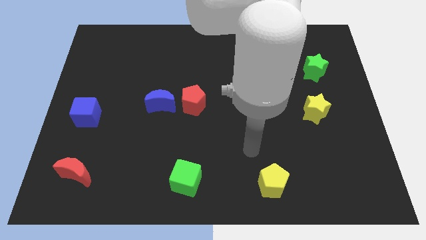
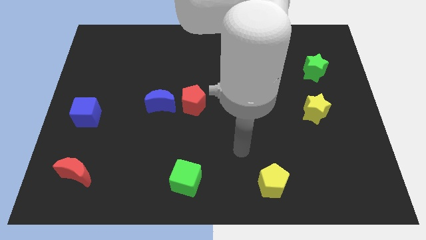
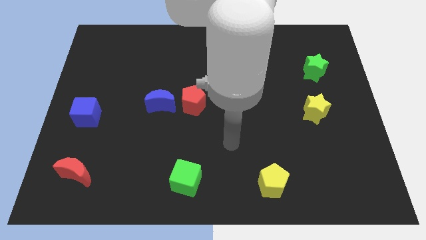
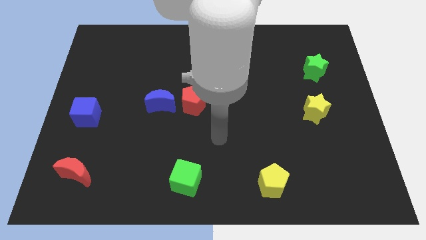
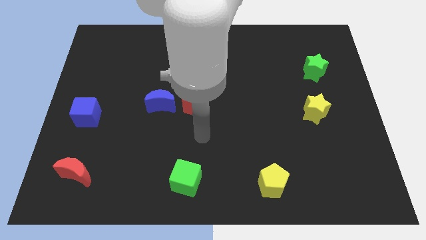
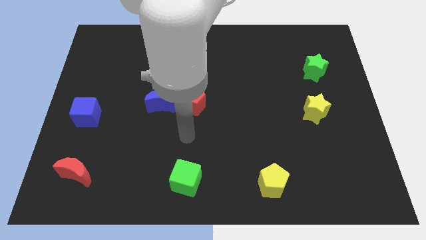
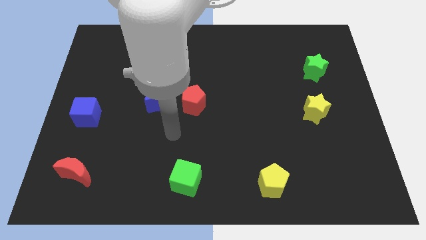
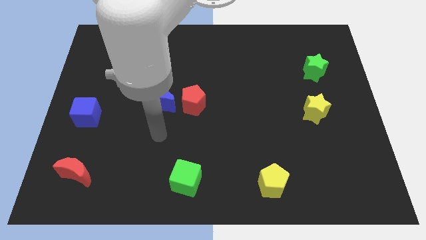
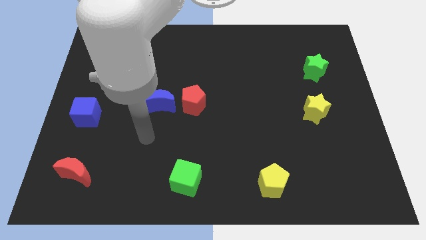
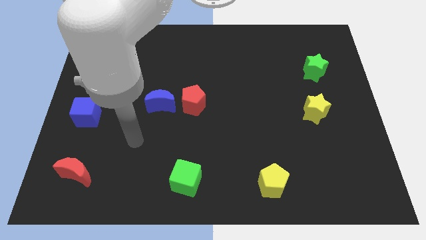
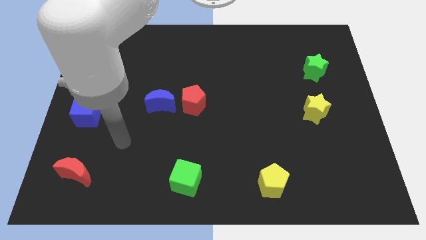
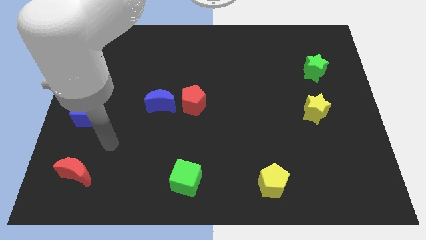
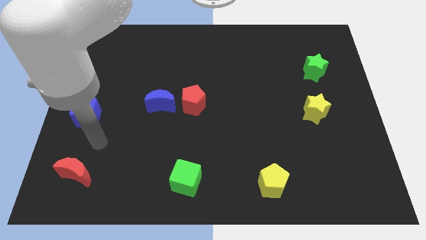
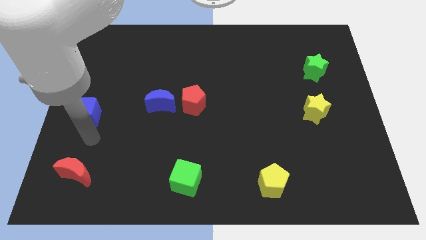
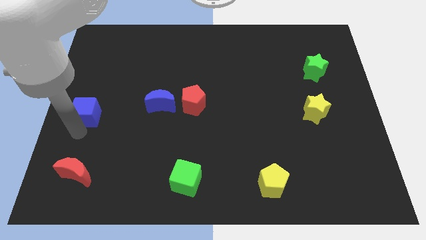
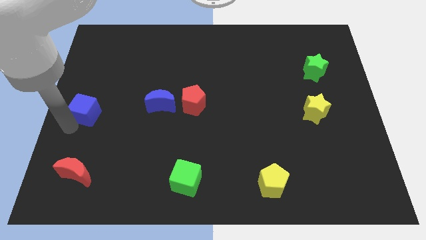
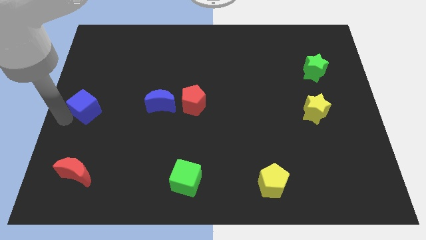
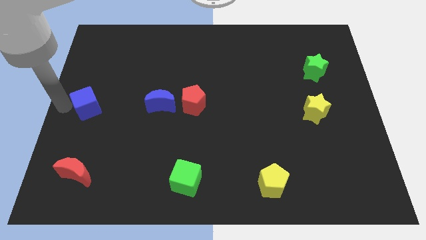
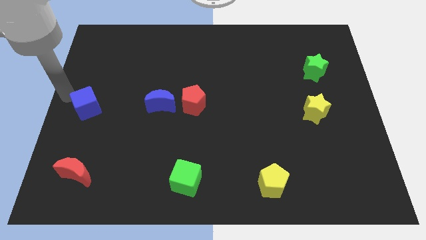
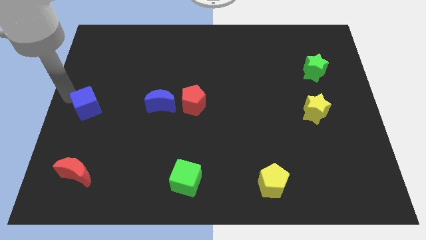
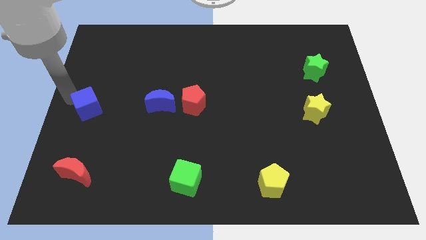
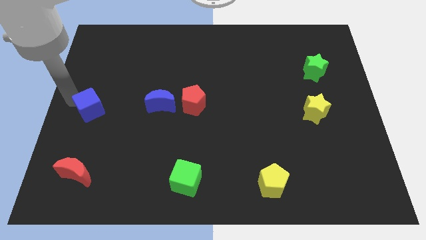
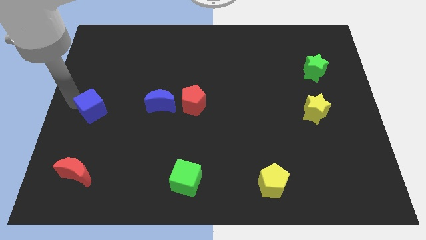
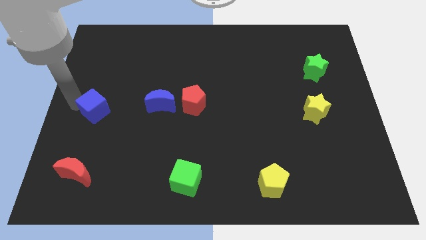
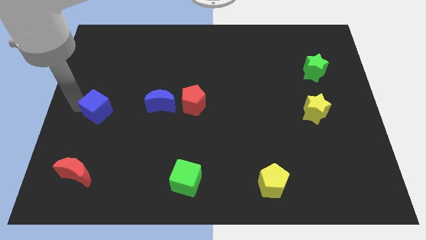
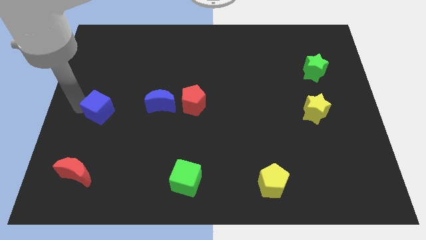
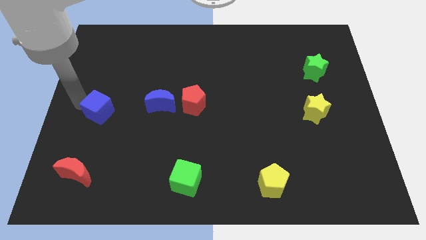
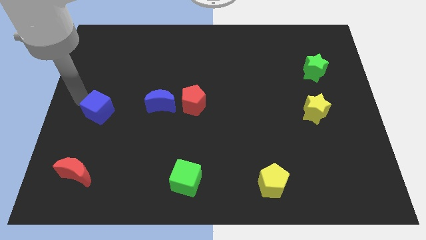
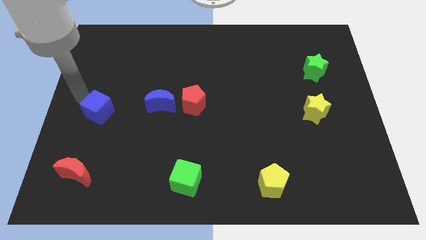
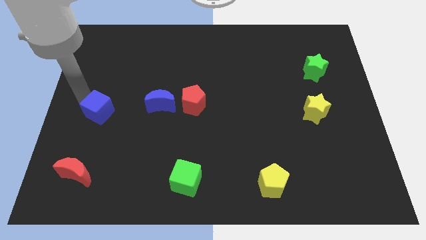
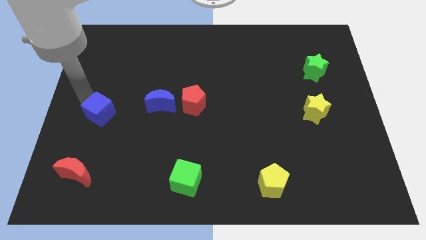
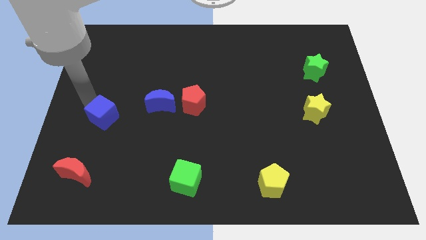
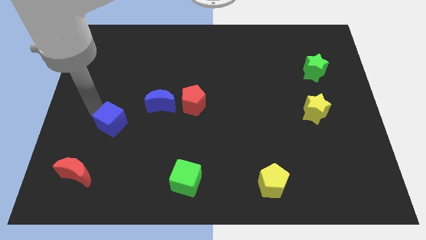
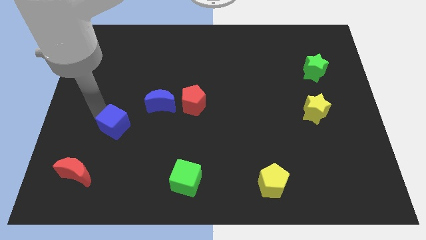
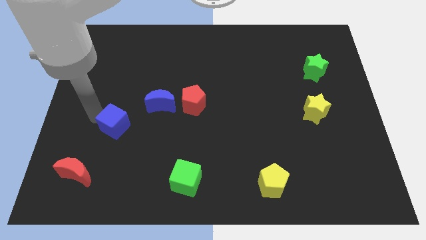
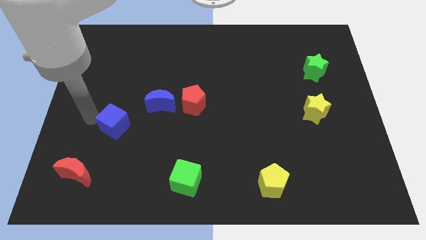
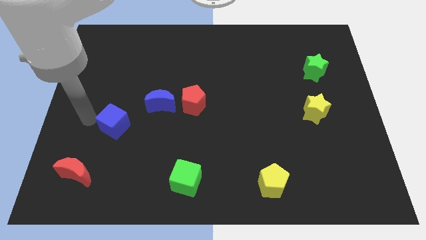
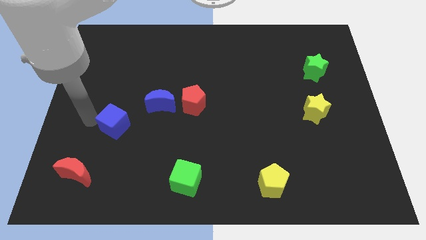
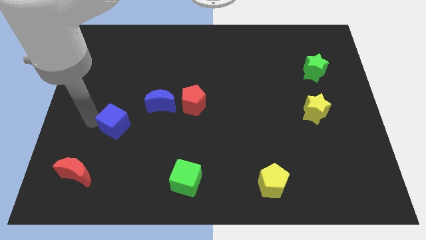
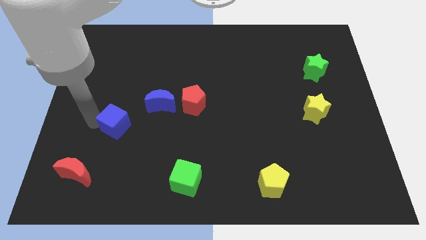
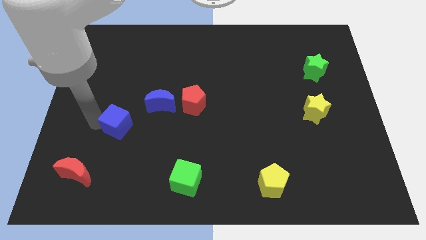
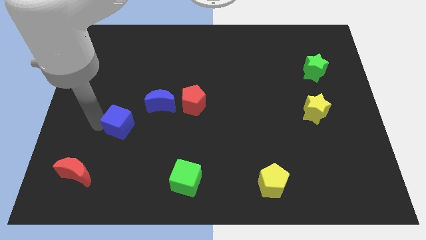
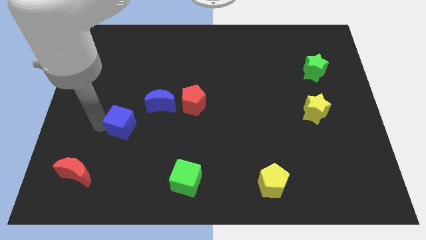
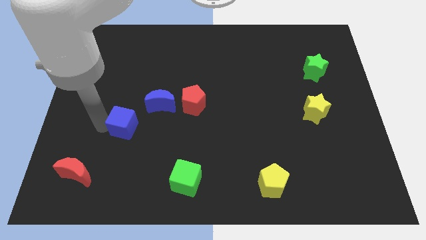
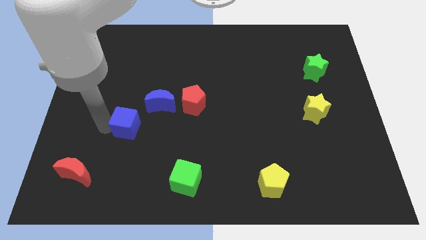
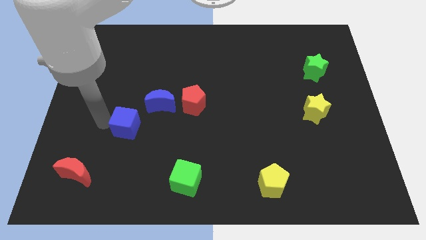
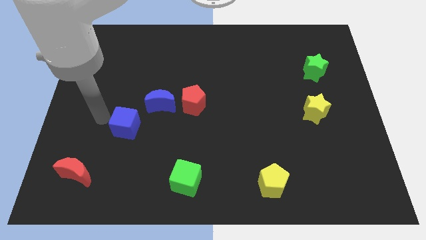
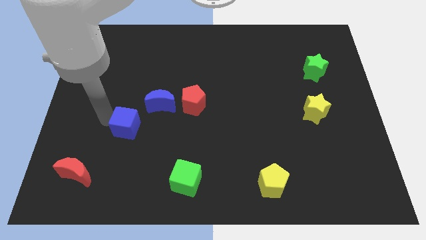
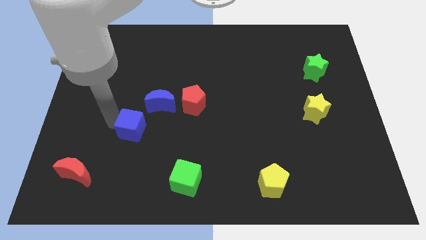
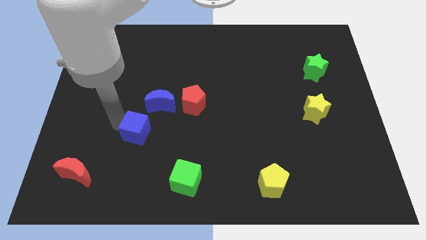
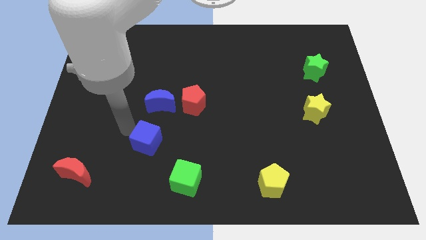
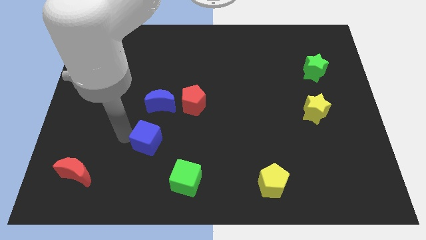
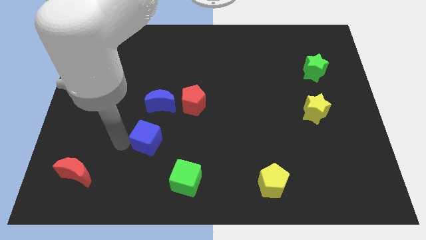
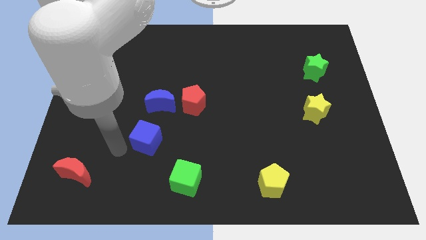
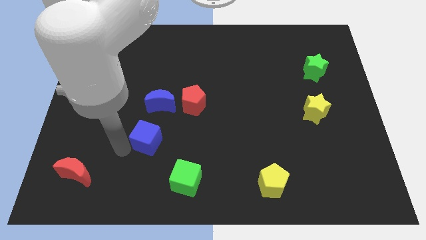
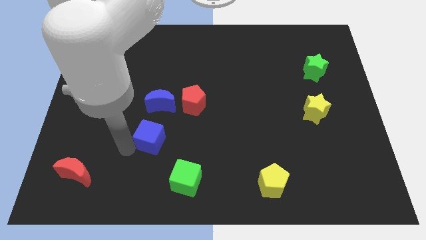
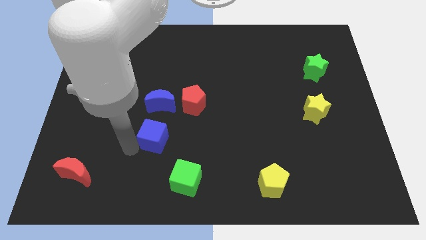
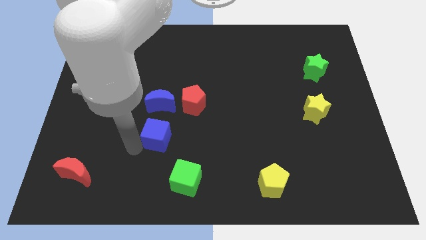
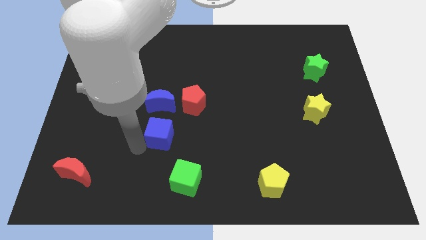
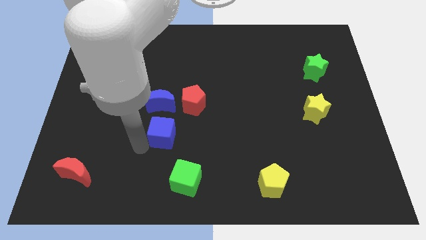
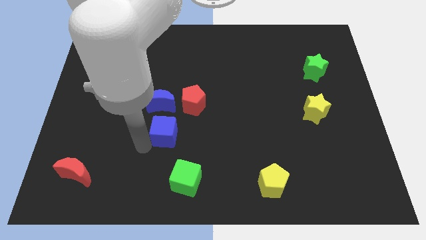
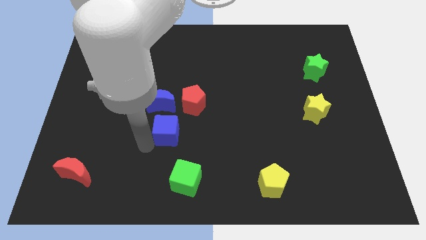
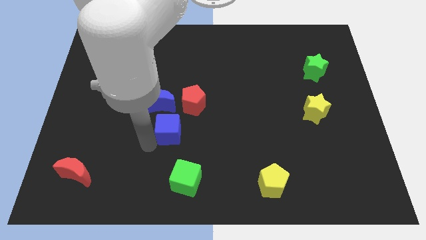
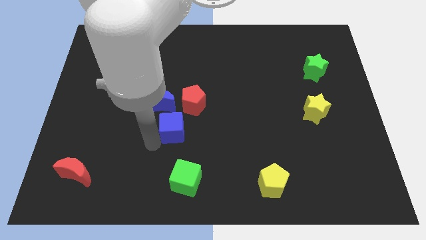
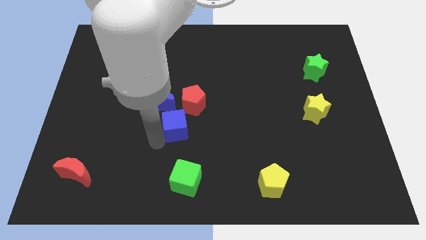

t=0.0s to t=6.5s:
slide the blue cube right

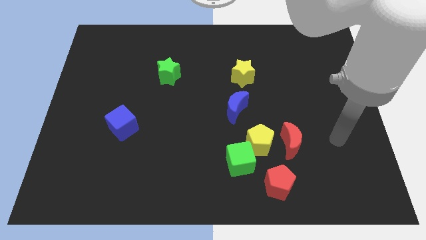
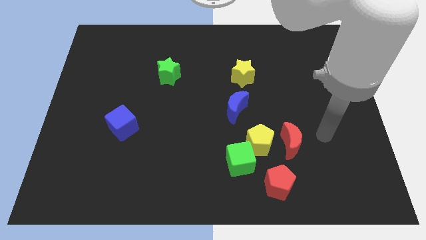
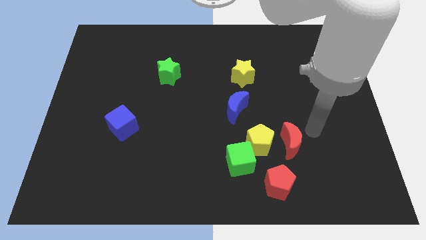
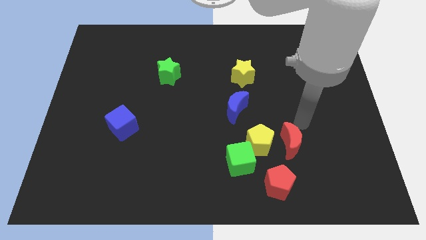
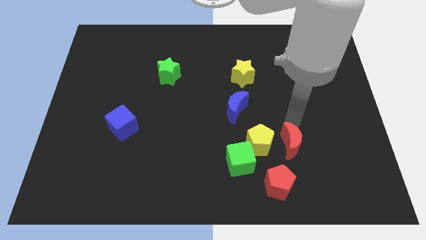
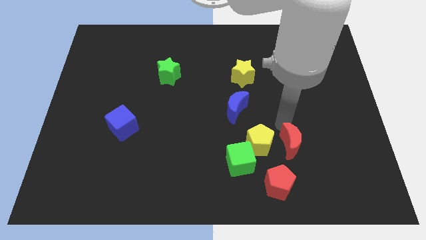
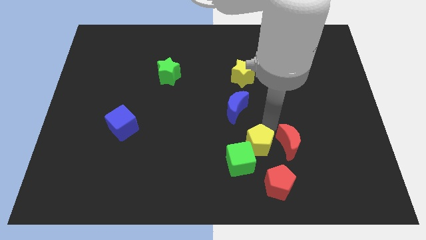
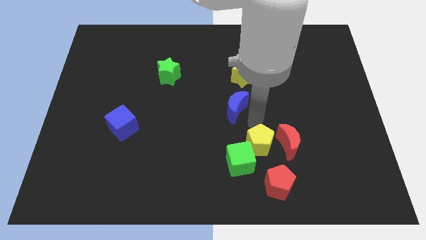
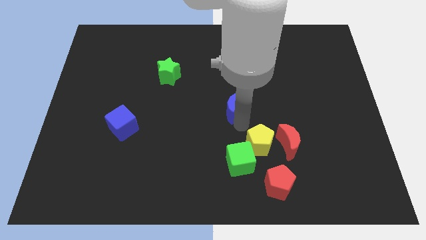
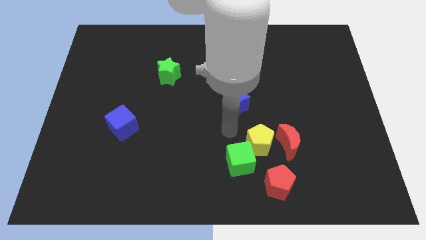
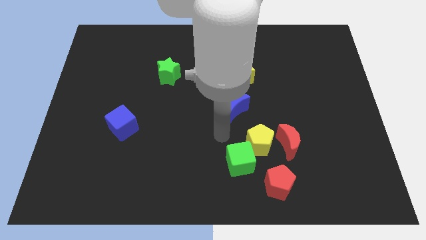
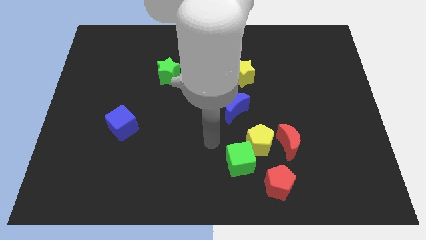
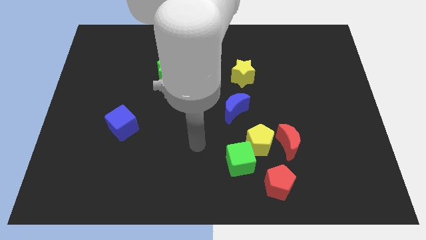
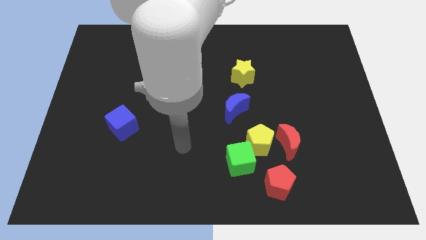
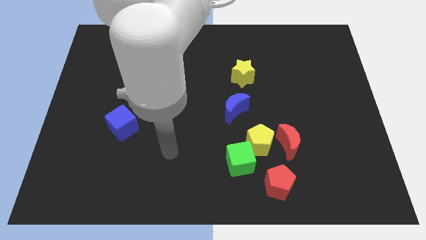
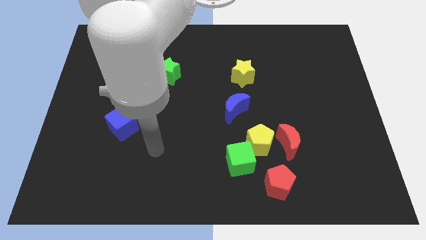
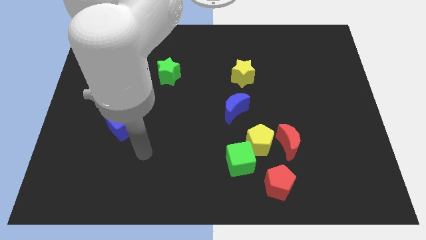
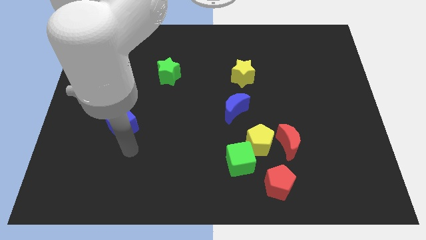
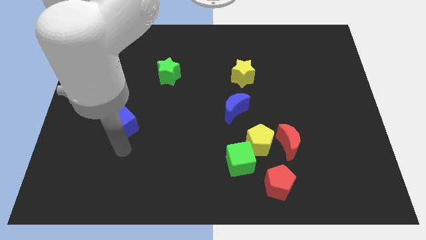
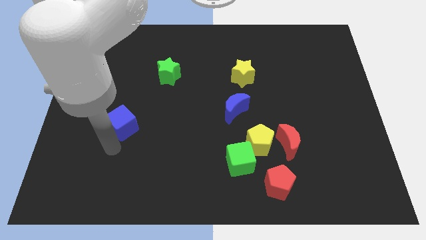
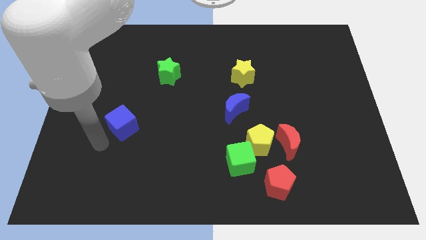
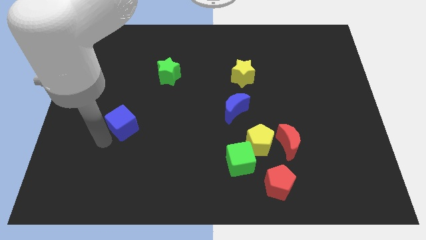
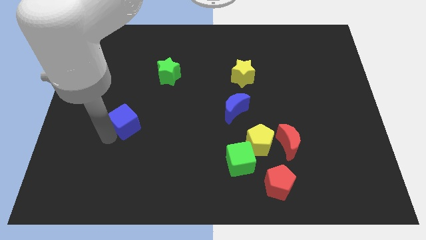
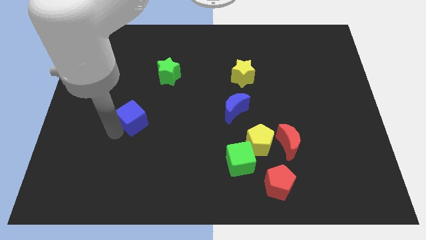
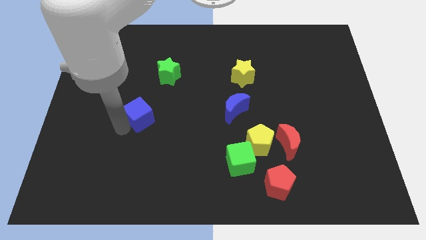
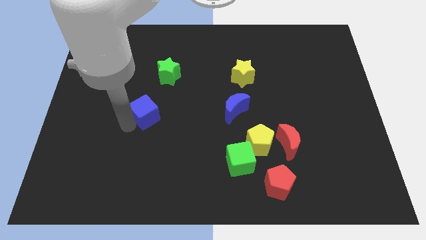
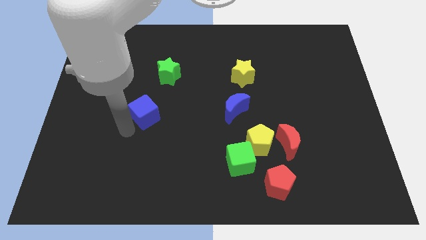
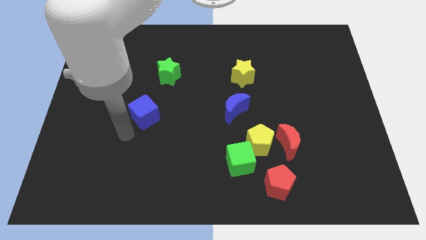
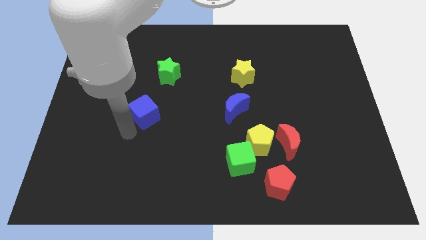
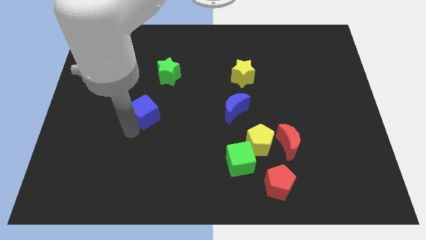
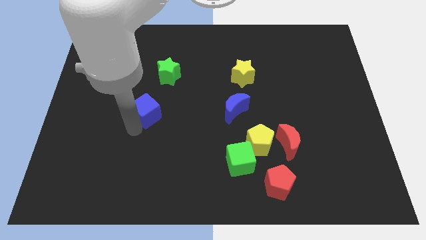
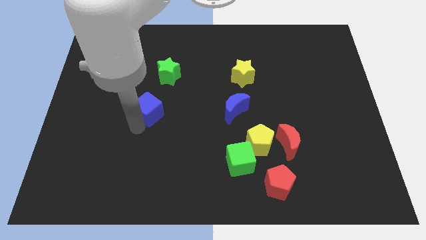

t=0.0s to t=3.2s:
slide the blue cube a little up and to the right diagonally
